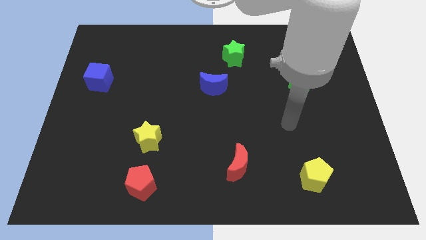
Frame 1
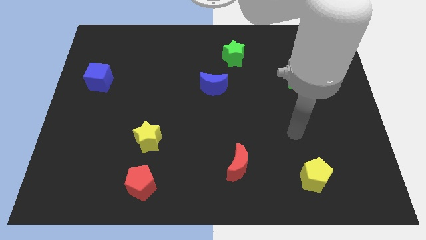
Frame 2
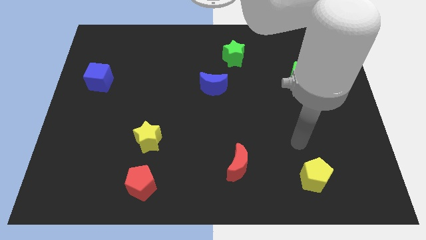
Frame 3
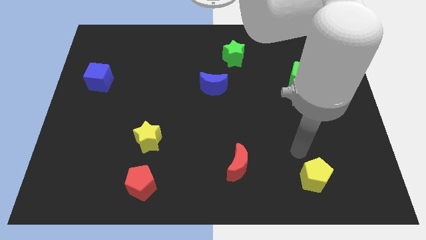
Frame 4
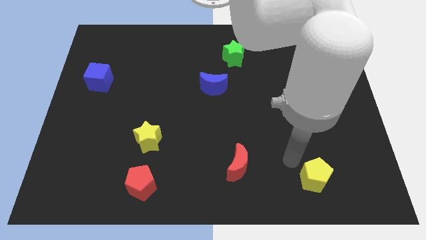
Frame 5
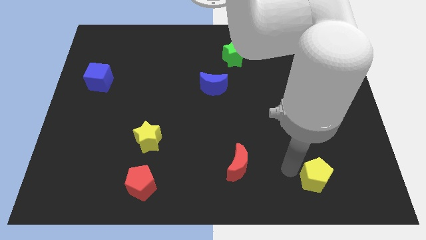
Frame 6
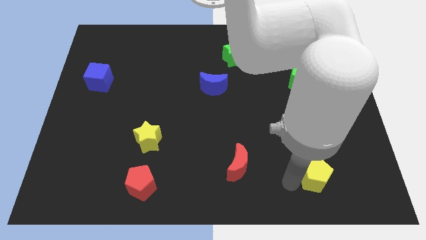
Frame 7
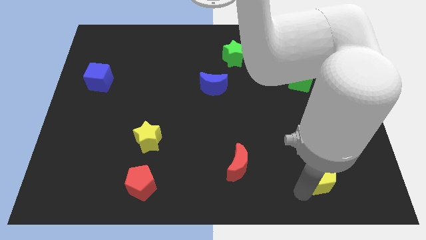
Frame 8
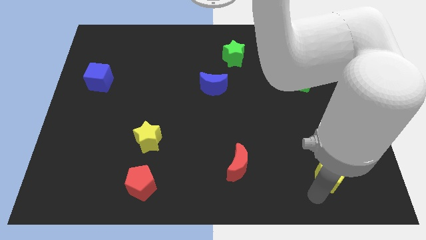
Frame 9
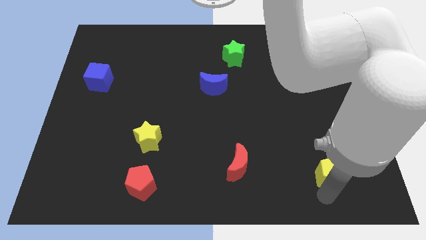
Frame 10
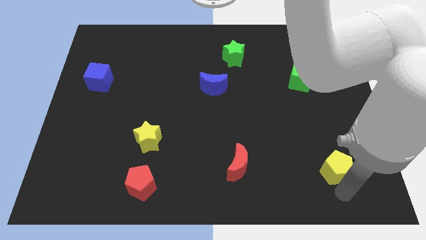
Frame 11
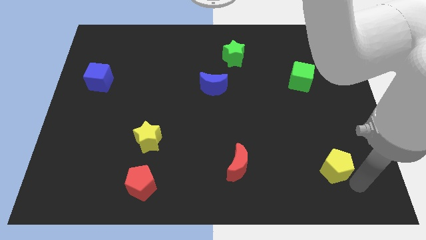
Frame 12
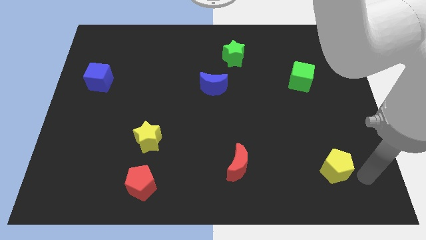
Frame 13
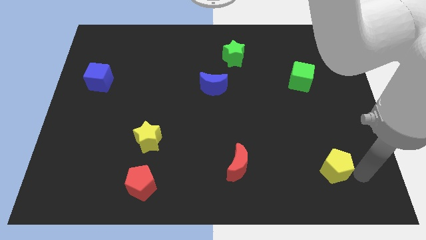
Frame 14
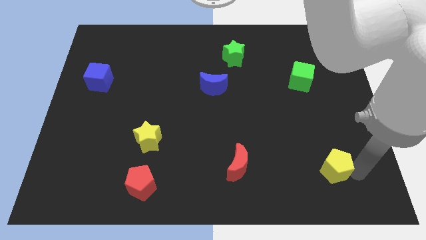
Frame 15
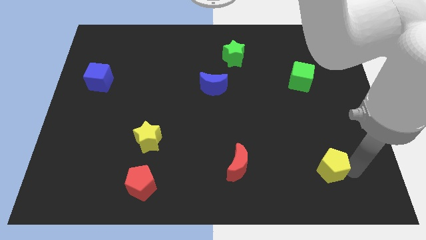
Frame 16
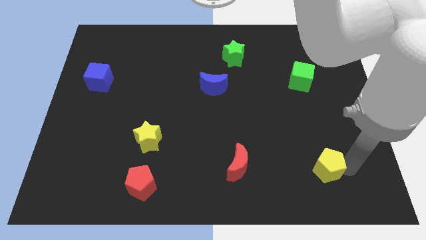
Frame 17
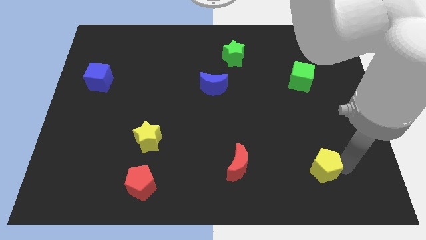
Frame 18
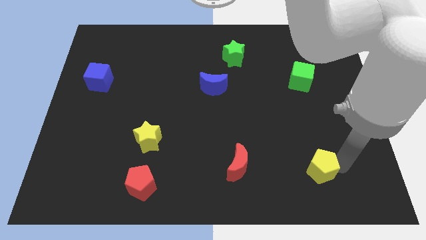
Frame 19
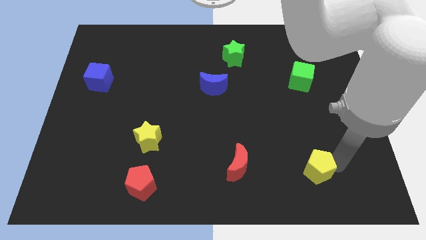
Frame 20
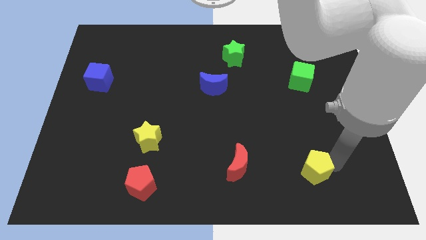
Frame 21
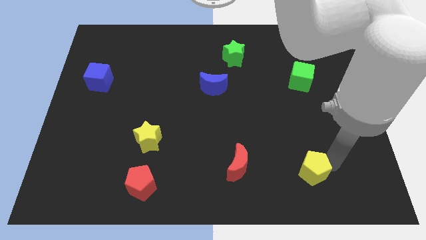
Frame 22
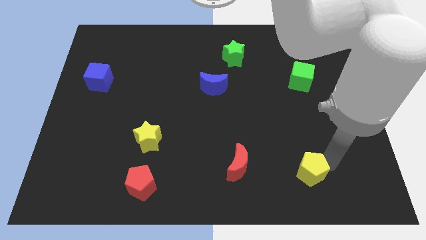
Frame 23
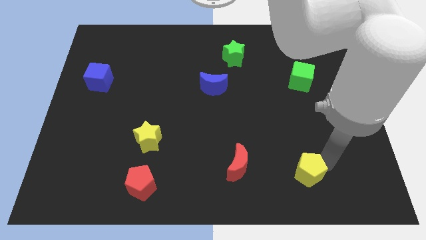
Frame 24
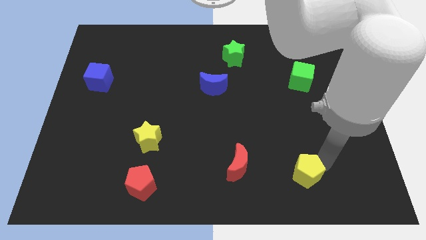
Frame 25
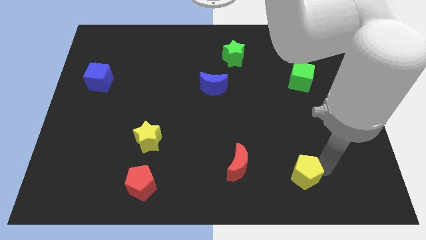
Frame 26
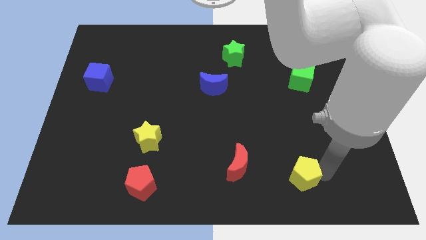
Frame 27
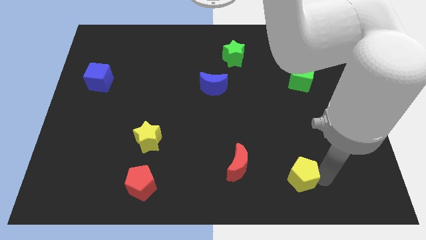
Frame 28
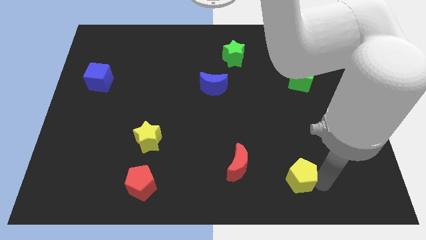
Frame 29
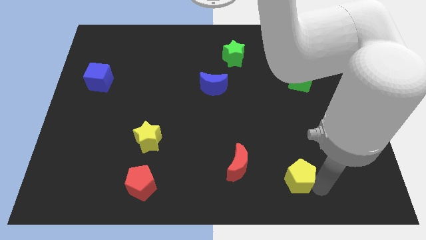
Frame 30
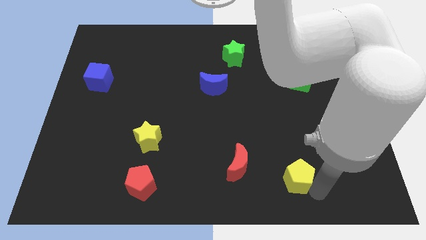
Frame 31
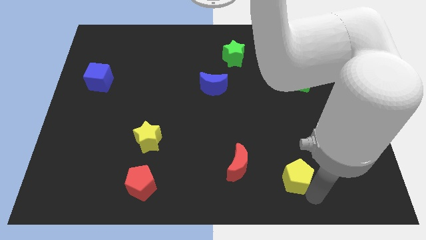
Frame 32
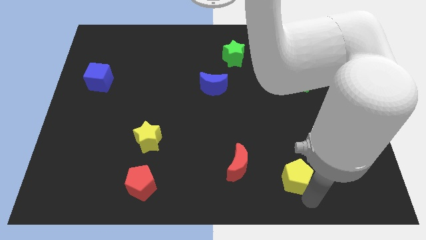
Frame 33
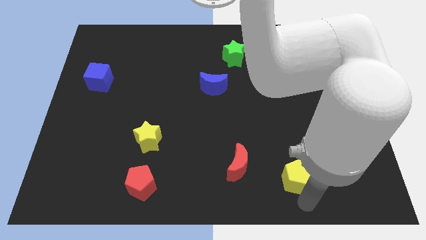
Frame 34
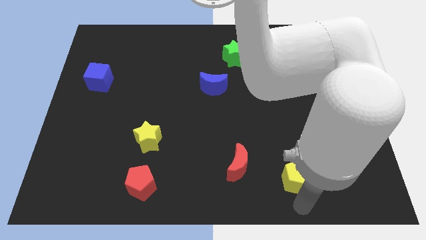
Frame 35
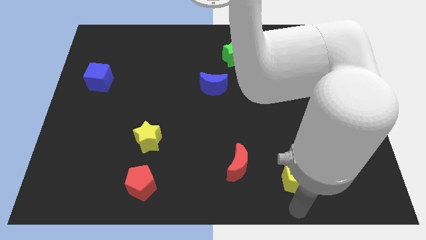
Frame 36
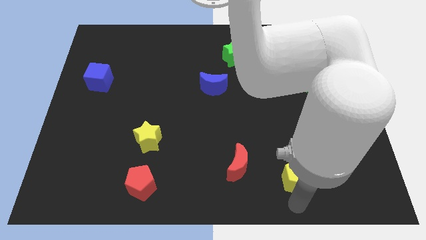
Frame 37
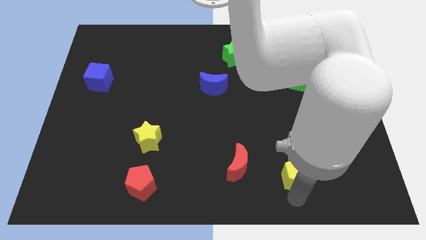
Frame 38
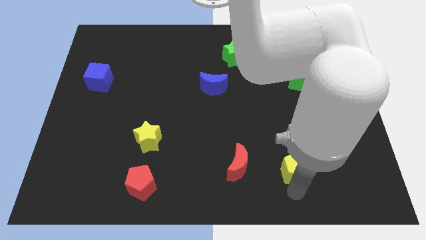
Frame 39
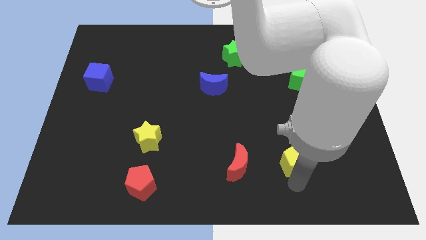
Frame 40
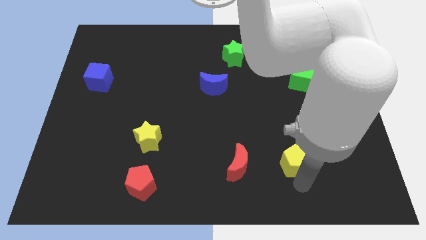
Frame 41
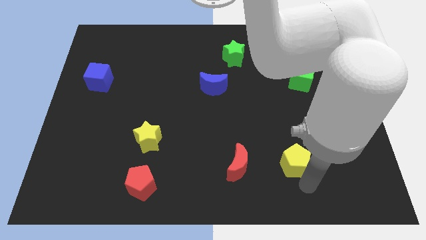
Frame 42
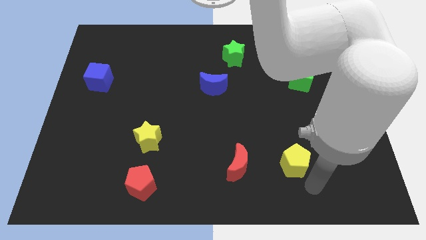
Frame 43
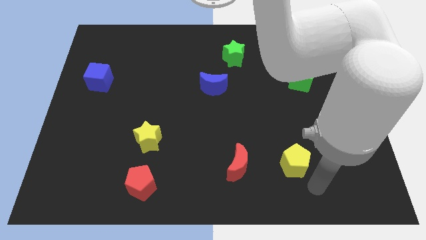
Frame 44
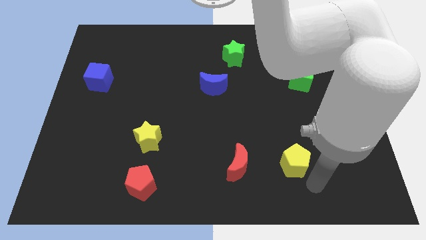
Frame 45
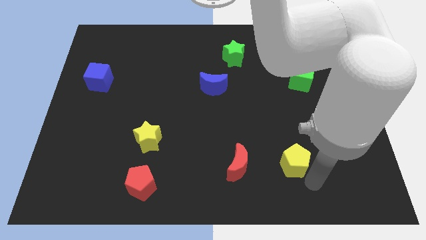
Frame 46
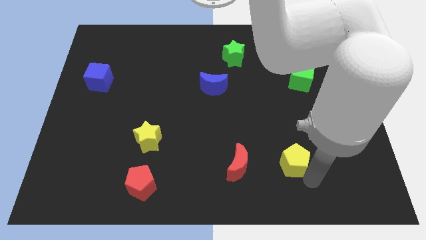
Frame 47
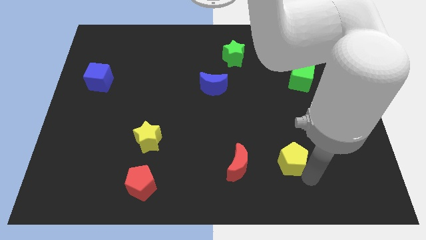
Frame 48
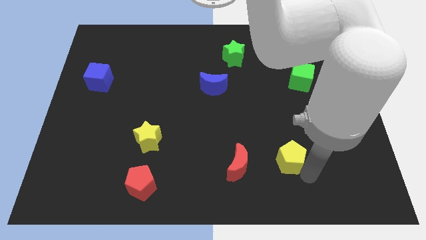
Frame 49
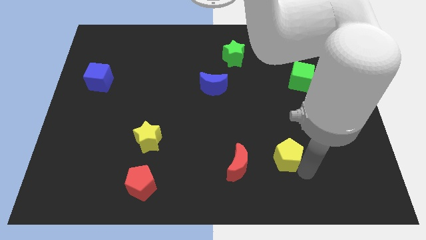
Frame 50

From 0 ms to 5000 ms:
slide the yellow pentagon a little upwards and then left

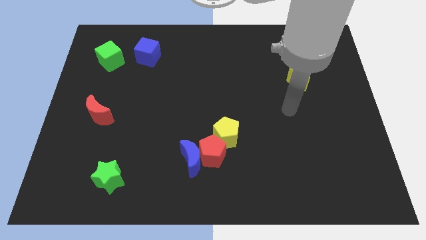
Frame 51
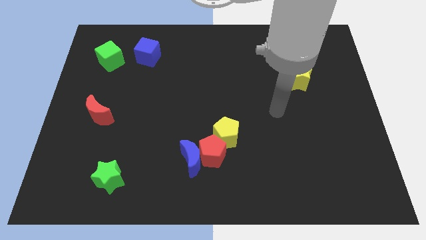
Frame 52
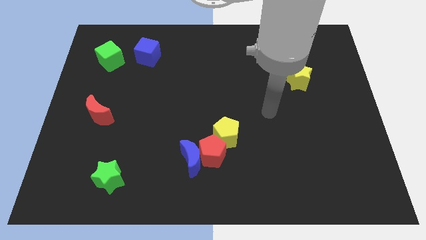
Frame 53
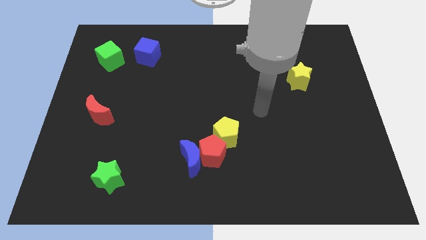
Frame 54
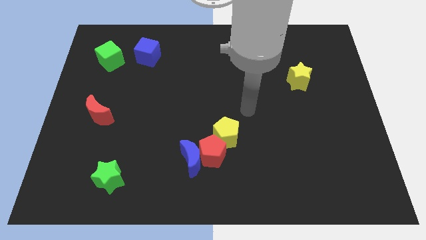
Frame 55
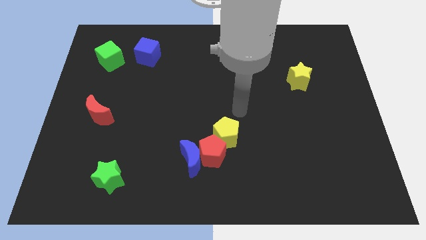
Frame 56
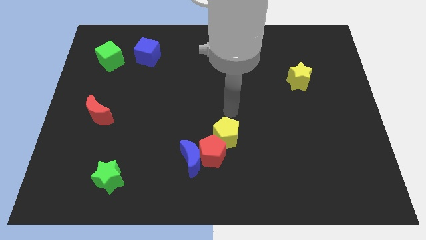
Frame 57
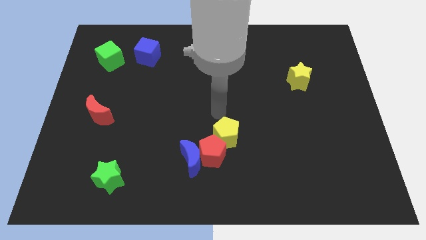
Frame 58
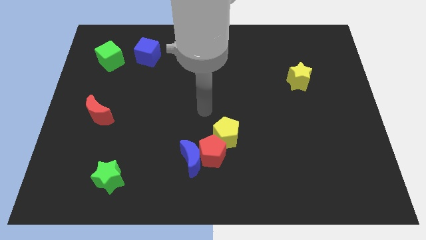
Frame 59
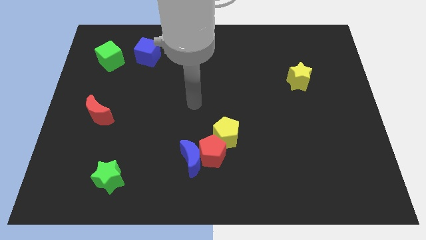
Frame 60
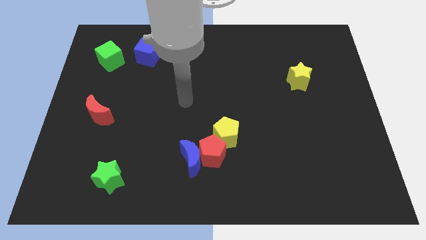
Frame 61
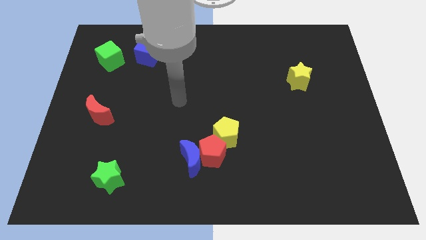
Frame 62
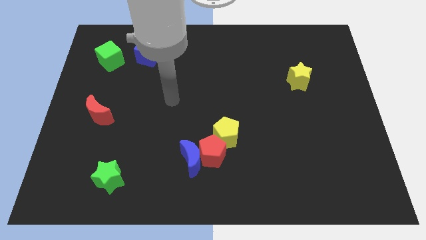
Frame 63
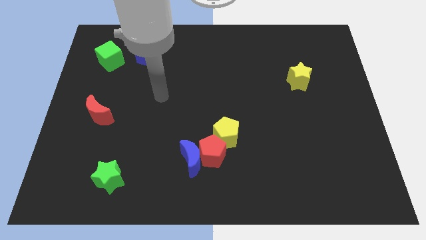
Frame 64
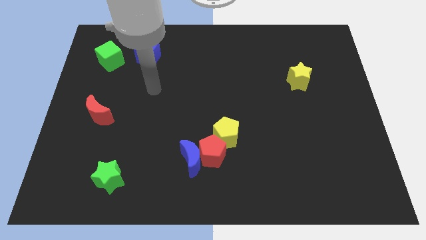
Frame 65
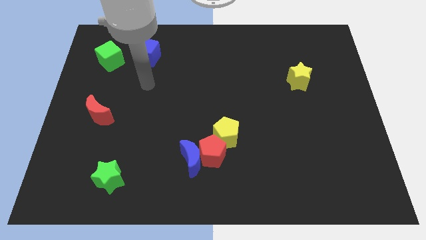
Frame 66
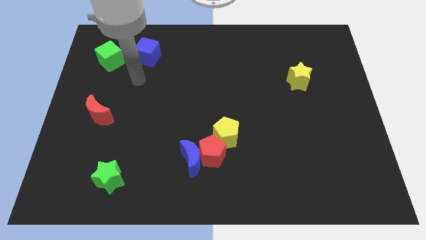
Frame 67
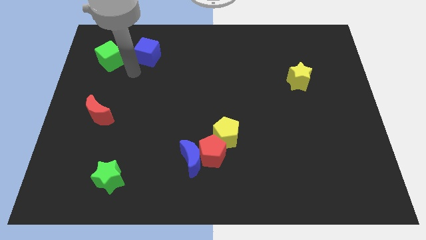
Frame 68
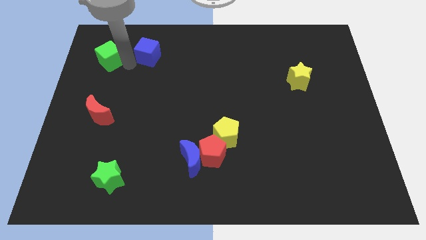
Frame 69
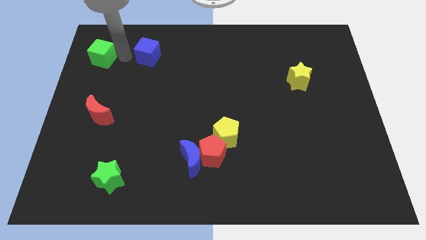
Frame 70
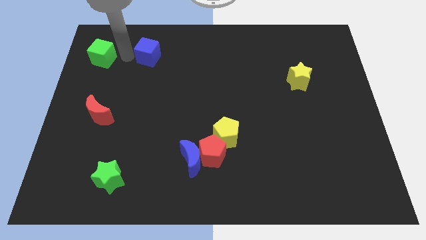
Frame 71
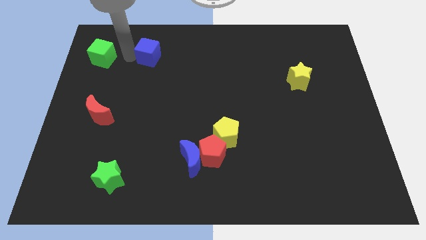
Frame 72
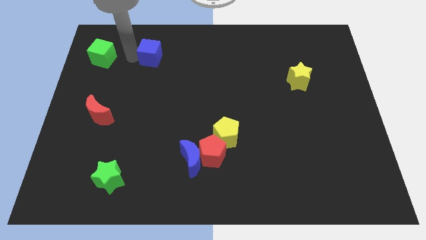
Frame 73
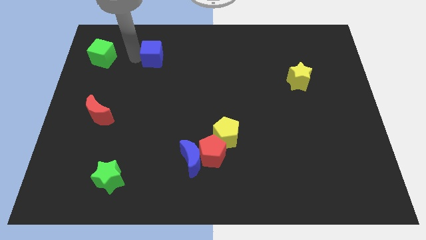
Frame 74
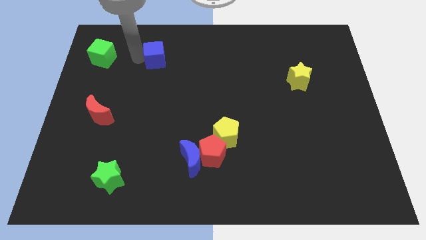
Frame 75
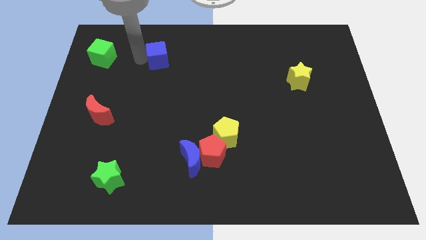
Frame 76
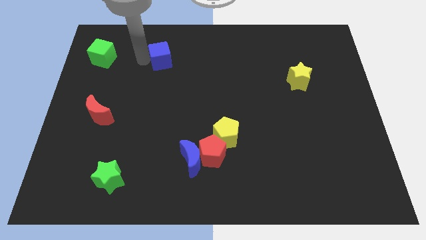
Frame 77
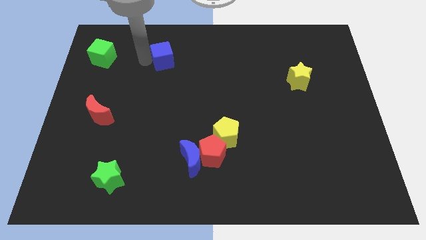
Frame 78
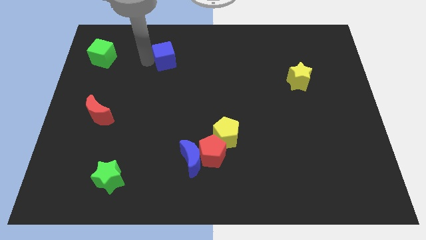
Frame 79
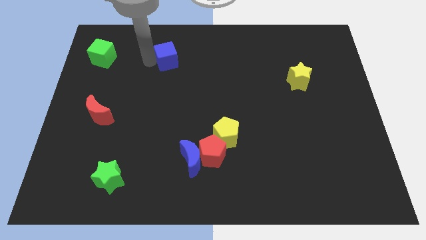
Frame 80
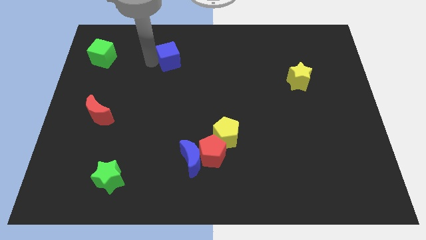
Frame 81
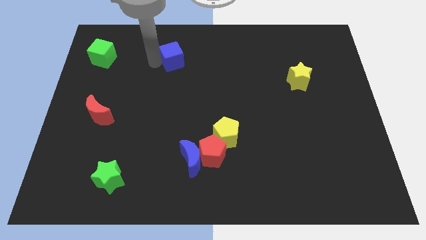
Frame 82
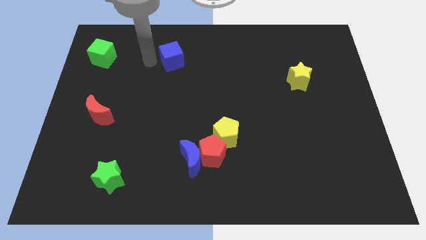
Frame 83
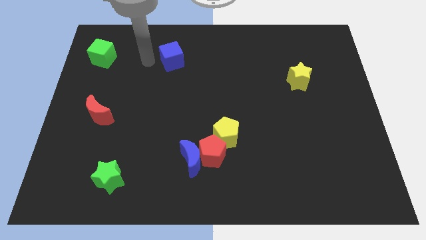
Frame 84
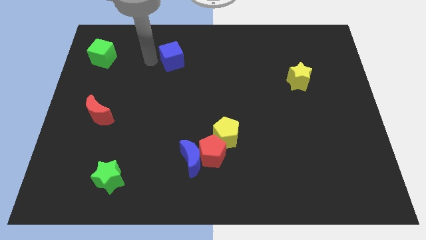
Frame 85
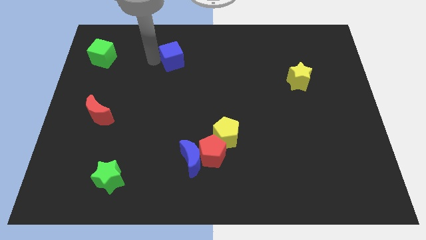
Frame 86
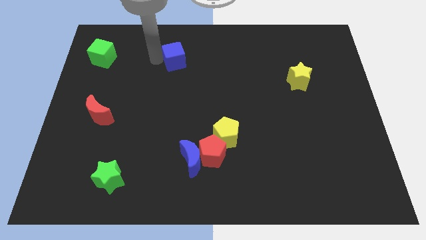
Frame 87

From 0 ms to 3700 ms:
slide the blue cube to the right slightly
